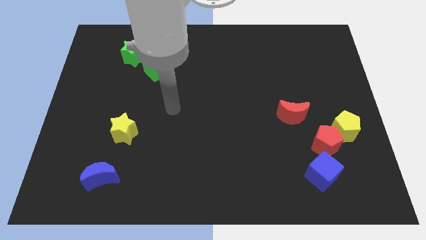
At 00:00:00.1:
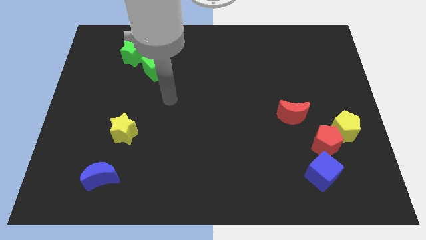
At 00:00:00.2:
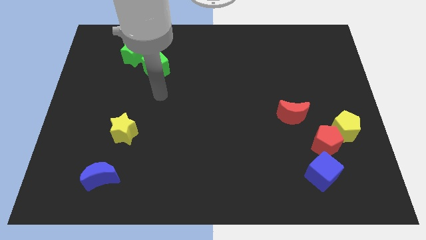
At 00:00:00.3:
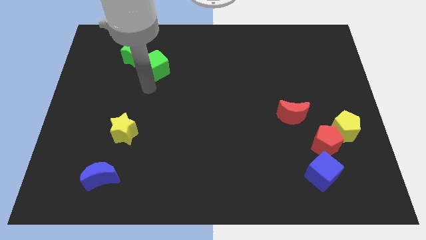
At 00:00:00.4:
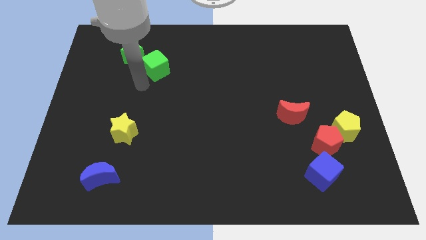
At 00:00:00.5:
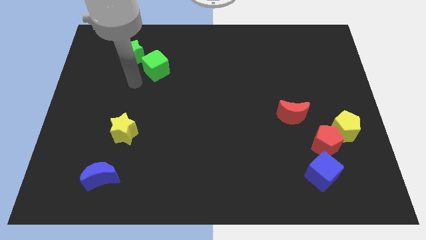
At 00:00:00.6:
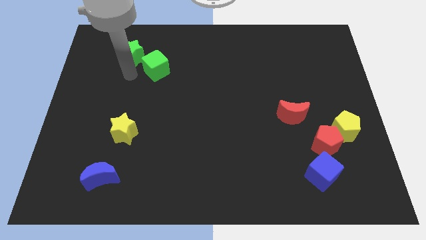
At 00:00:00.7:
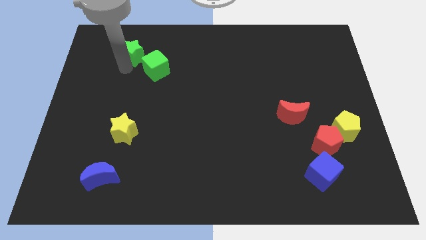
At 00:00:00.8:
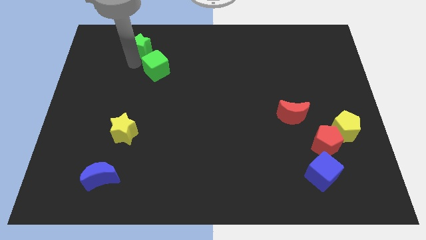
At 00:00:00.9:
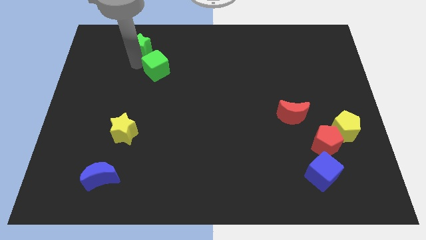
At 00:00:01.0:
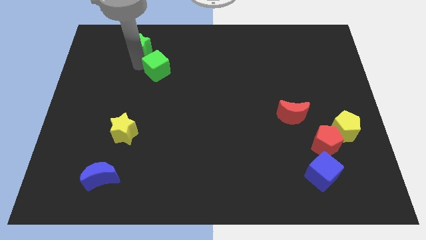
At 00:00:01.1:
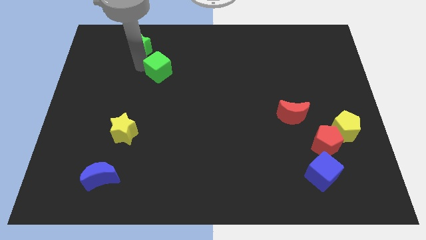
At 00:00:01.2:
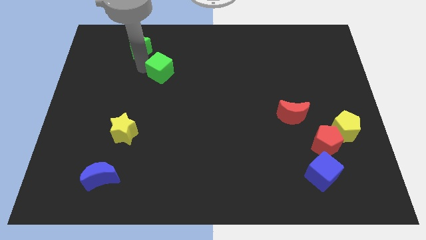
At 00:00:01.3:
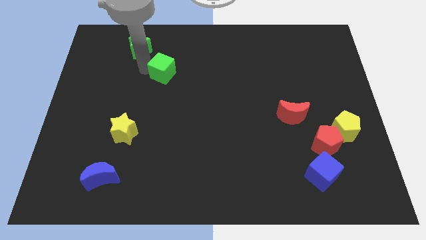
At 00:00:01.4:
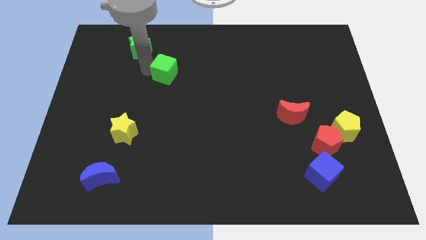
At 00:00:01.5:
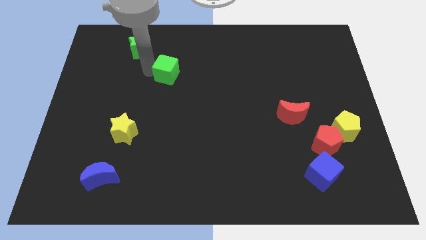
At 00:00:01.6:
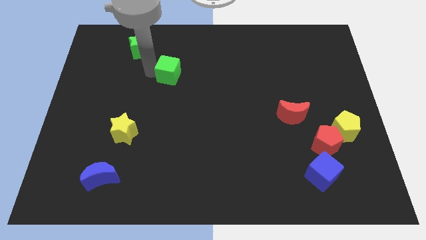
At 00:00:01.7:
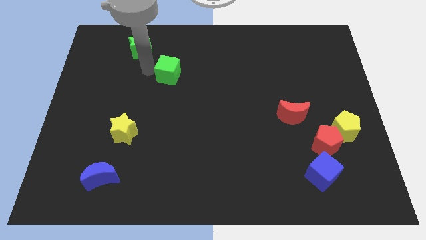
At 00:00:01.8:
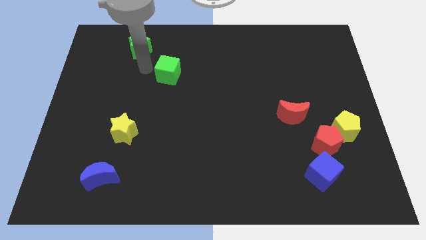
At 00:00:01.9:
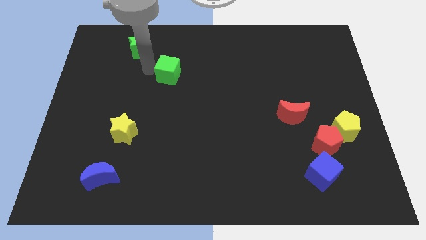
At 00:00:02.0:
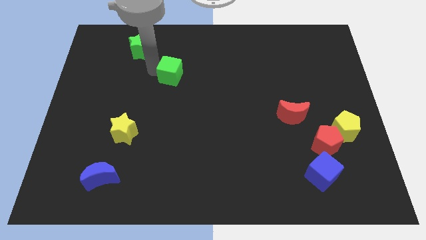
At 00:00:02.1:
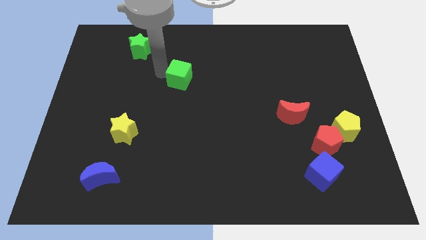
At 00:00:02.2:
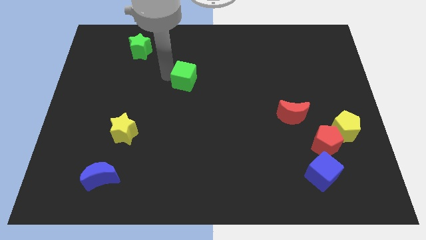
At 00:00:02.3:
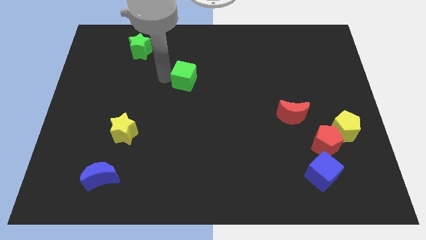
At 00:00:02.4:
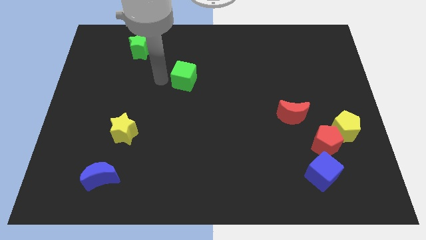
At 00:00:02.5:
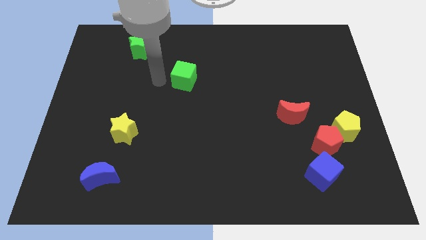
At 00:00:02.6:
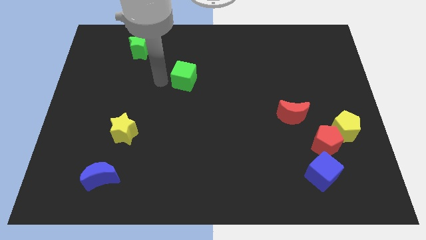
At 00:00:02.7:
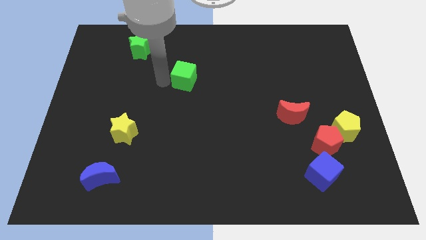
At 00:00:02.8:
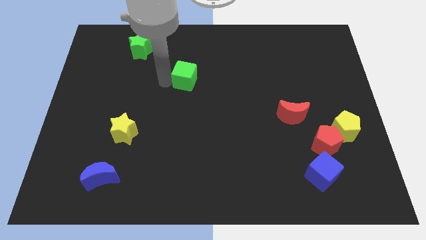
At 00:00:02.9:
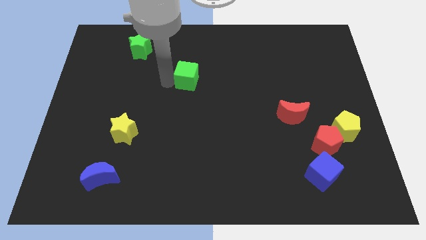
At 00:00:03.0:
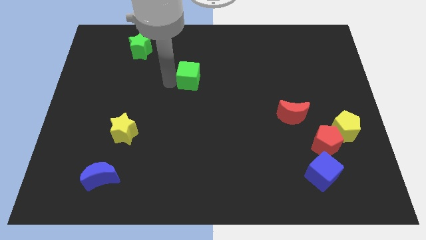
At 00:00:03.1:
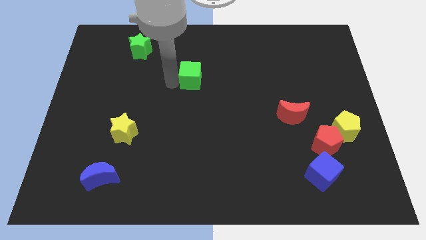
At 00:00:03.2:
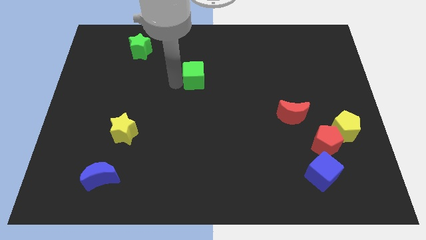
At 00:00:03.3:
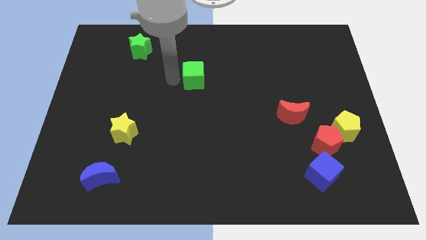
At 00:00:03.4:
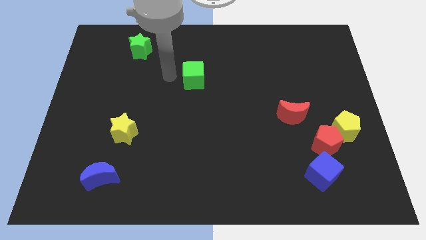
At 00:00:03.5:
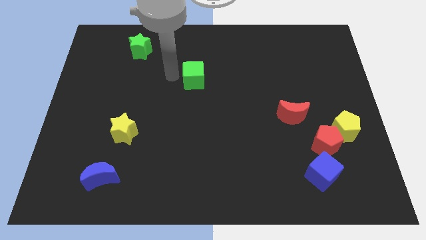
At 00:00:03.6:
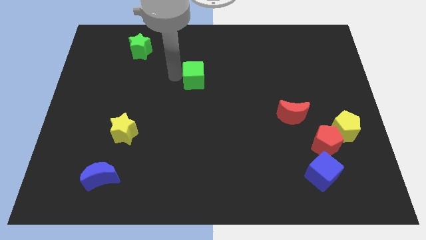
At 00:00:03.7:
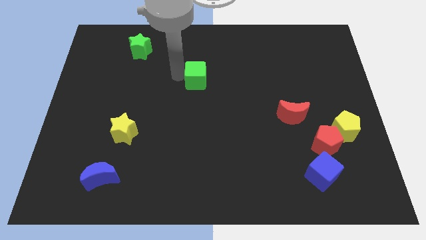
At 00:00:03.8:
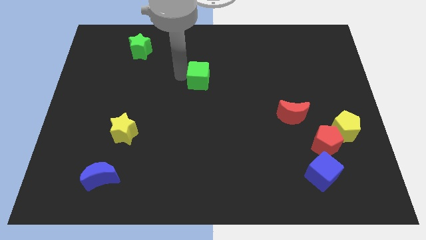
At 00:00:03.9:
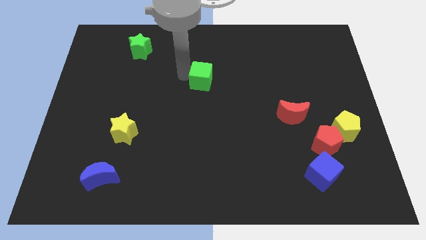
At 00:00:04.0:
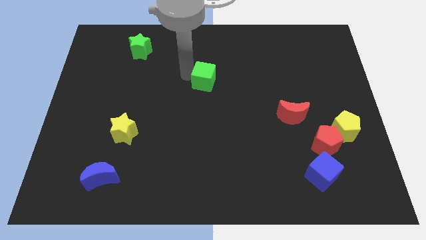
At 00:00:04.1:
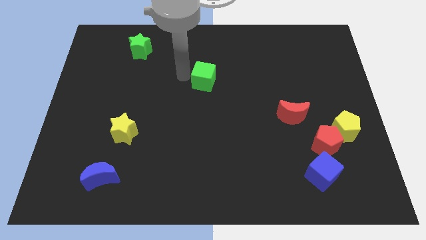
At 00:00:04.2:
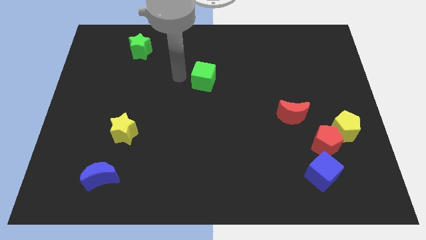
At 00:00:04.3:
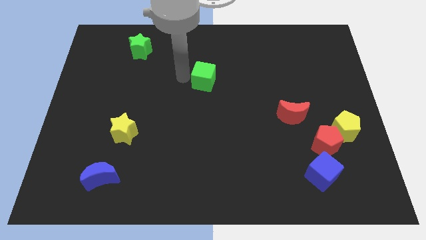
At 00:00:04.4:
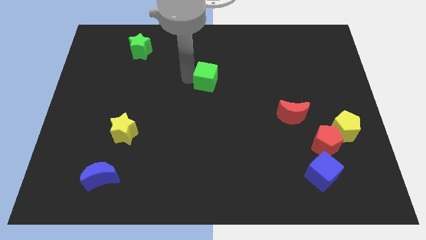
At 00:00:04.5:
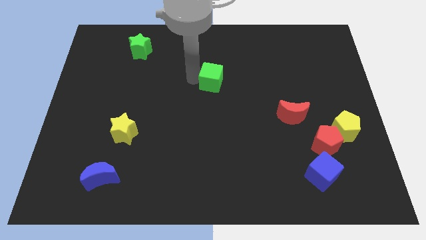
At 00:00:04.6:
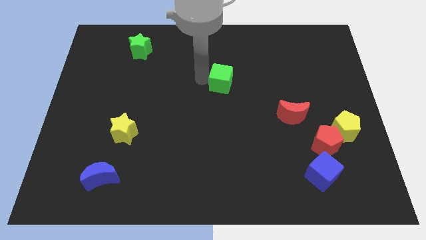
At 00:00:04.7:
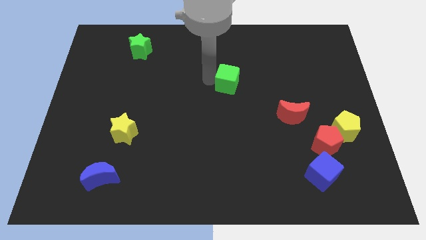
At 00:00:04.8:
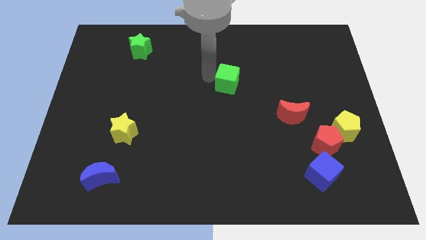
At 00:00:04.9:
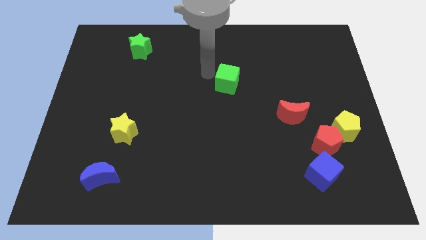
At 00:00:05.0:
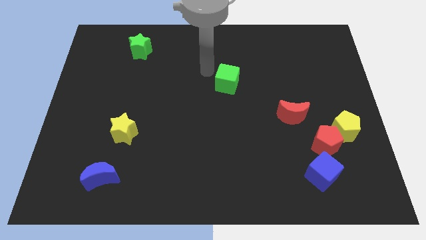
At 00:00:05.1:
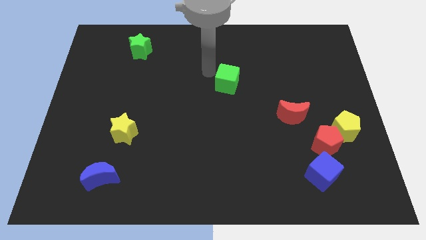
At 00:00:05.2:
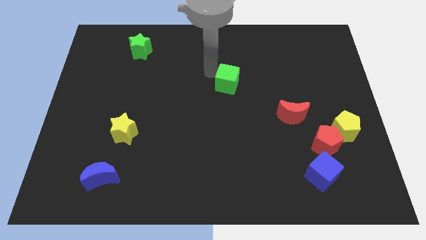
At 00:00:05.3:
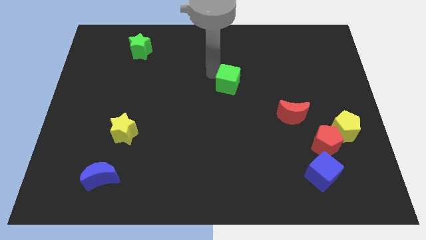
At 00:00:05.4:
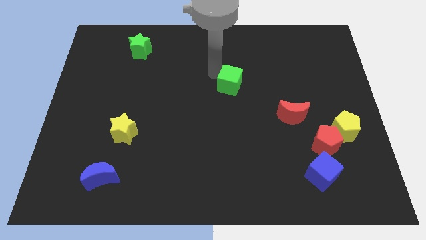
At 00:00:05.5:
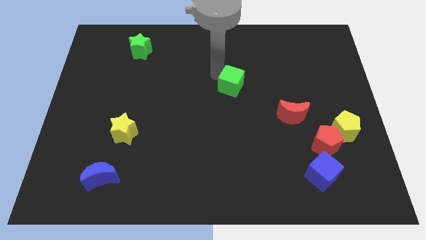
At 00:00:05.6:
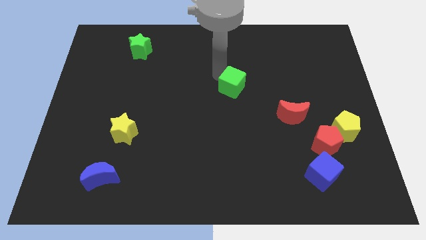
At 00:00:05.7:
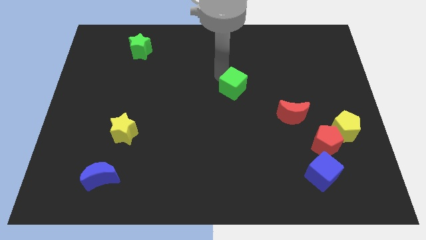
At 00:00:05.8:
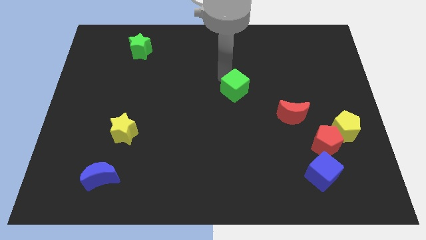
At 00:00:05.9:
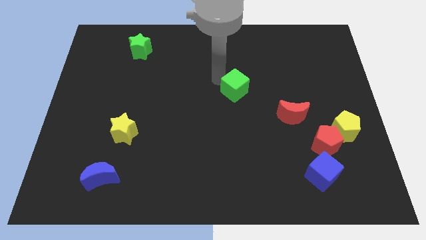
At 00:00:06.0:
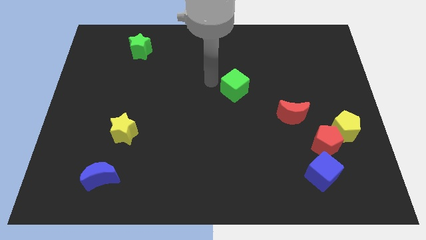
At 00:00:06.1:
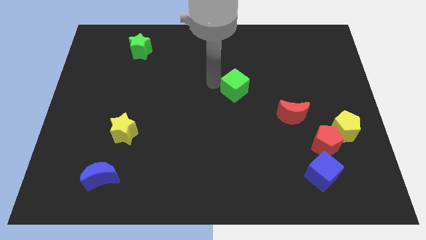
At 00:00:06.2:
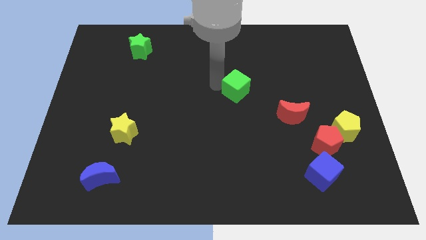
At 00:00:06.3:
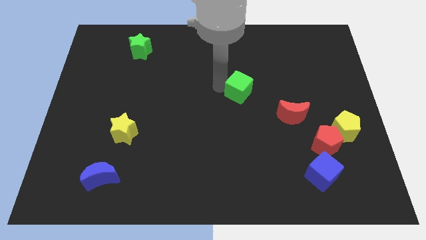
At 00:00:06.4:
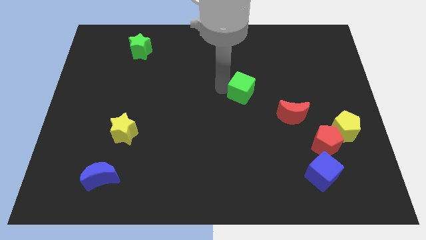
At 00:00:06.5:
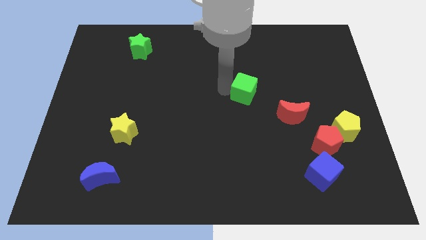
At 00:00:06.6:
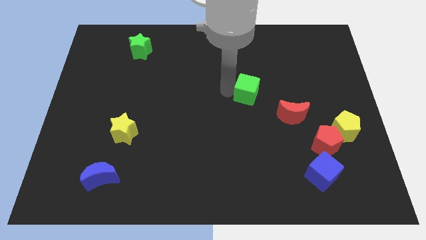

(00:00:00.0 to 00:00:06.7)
push the green cube to the top left of the red moon
